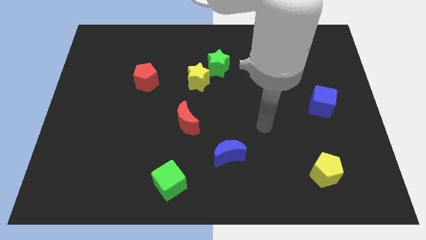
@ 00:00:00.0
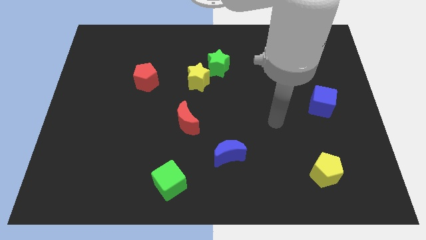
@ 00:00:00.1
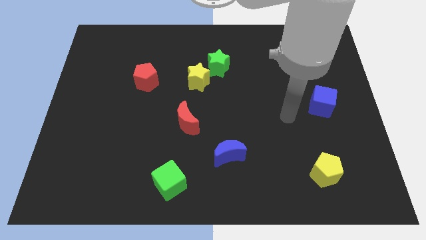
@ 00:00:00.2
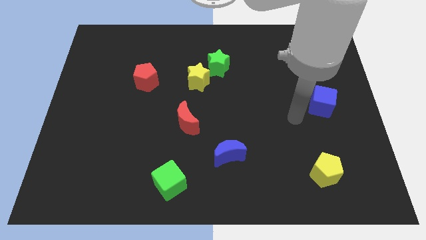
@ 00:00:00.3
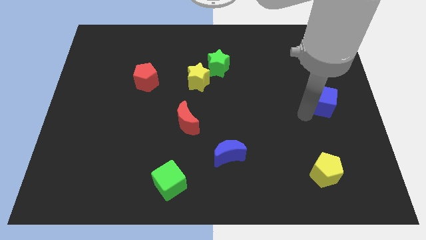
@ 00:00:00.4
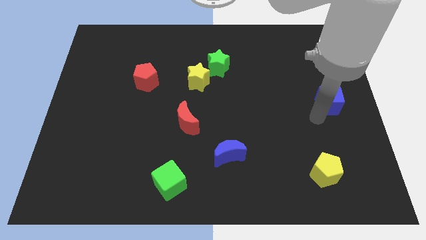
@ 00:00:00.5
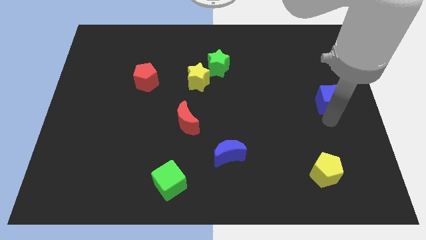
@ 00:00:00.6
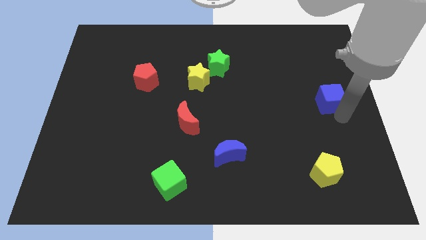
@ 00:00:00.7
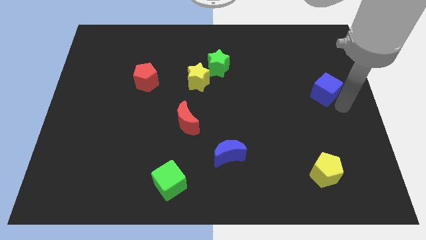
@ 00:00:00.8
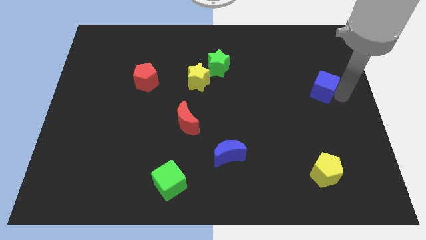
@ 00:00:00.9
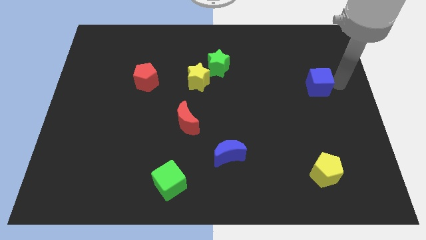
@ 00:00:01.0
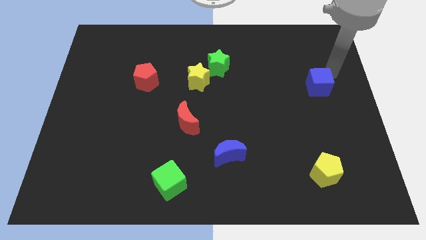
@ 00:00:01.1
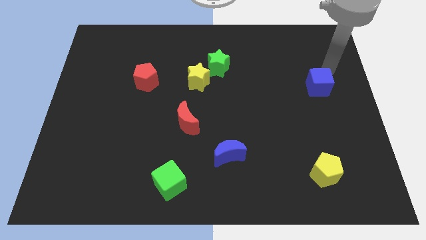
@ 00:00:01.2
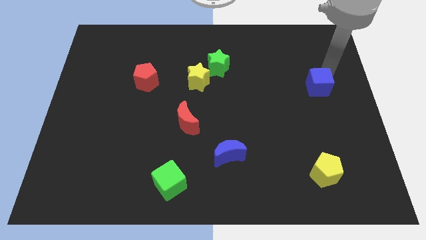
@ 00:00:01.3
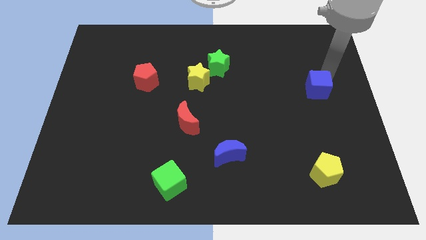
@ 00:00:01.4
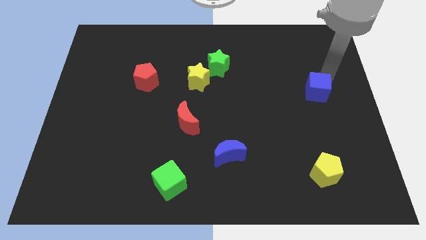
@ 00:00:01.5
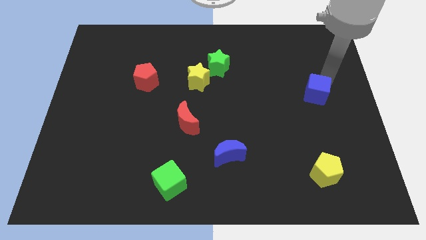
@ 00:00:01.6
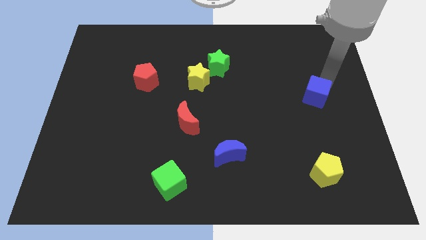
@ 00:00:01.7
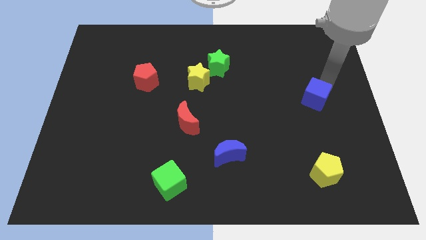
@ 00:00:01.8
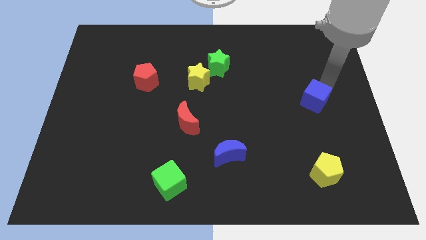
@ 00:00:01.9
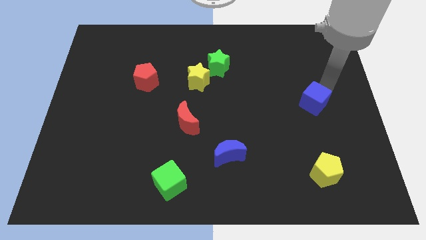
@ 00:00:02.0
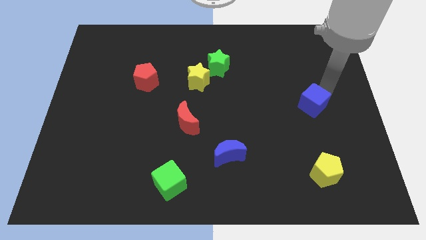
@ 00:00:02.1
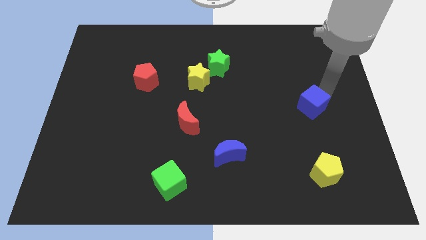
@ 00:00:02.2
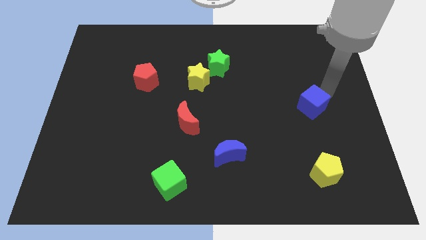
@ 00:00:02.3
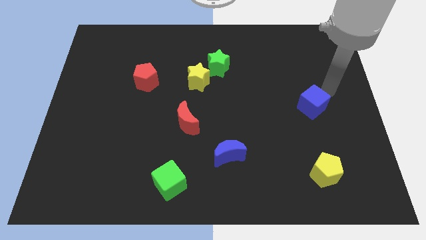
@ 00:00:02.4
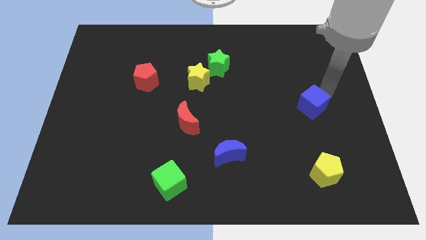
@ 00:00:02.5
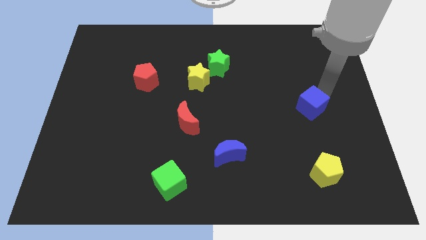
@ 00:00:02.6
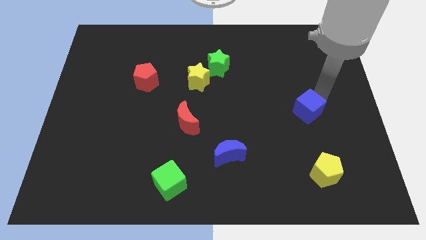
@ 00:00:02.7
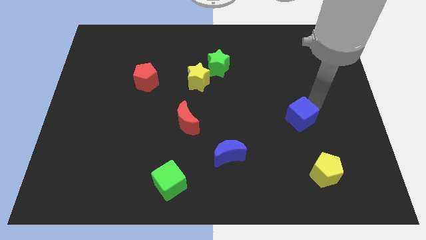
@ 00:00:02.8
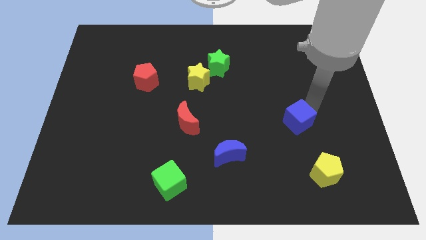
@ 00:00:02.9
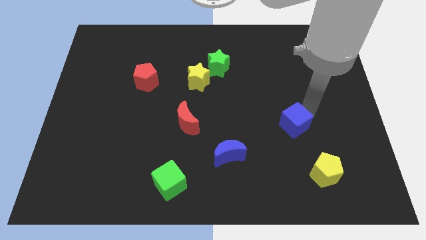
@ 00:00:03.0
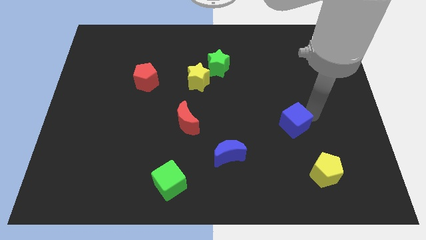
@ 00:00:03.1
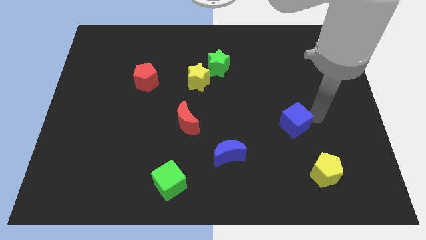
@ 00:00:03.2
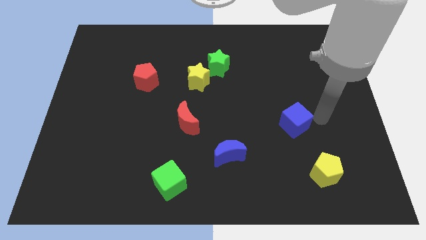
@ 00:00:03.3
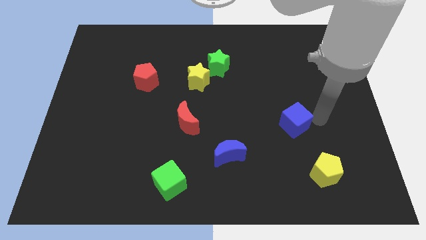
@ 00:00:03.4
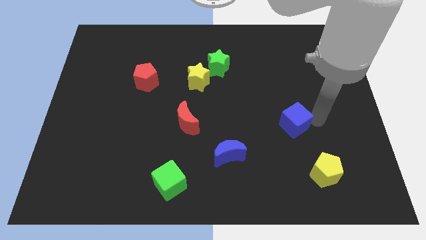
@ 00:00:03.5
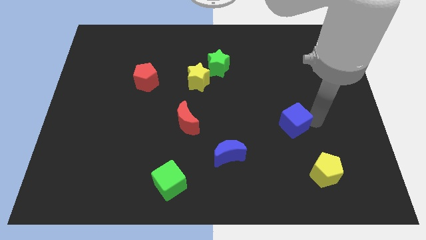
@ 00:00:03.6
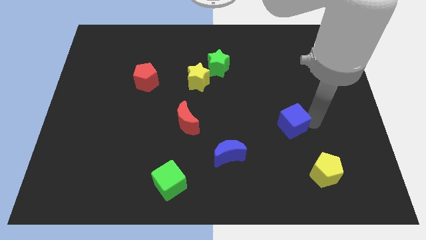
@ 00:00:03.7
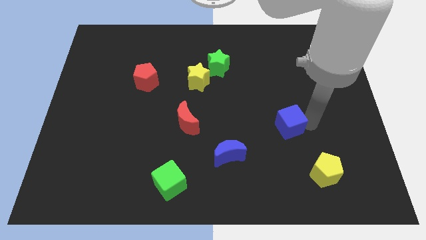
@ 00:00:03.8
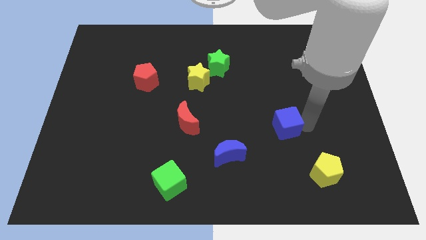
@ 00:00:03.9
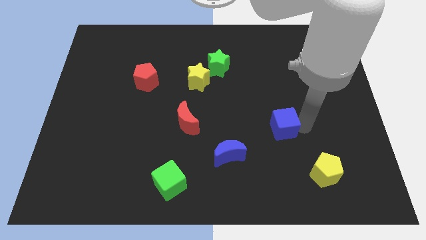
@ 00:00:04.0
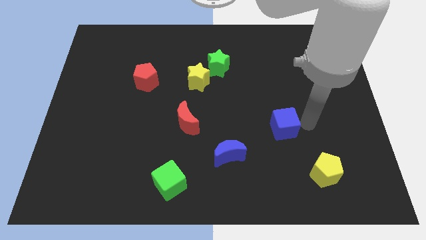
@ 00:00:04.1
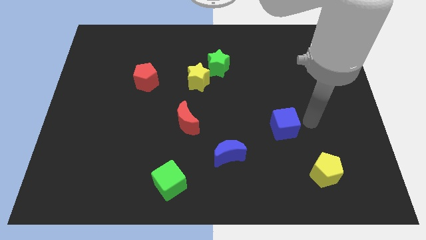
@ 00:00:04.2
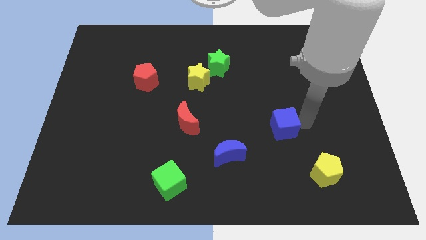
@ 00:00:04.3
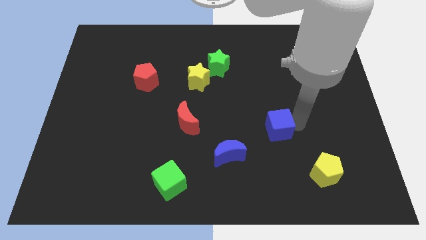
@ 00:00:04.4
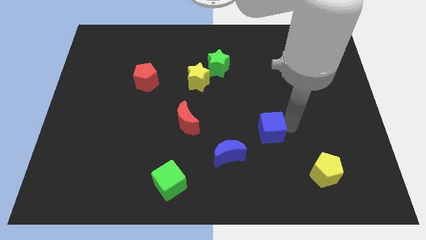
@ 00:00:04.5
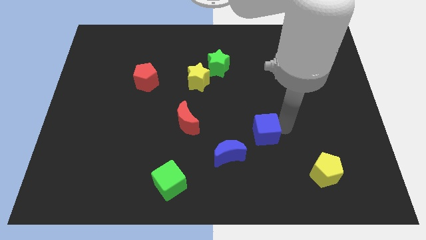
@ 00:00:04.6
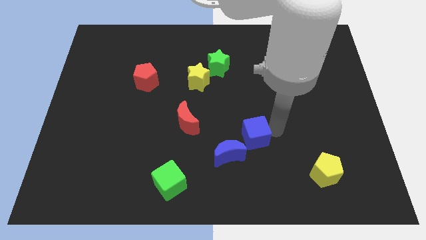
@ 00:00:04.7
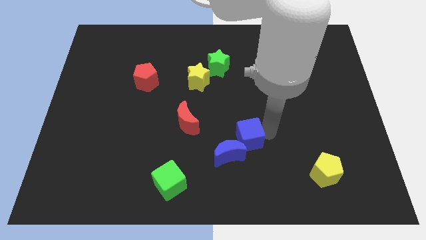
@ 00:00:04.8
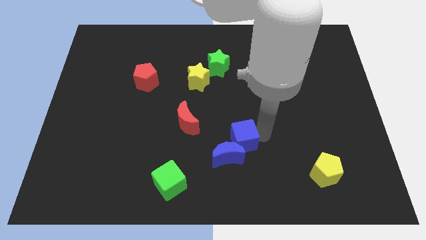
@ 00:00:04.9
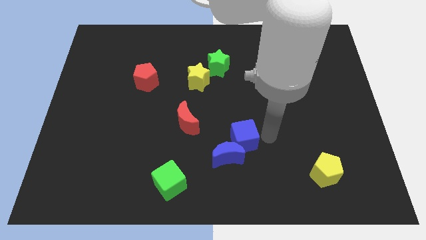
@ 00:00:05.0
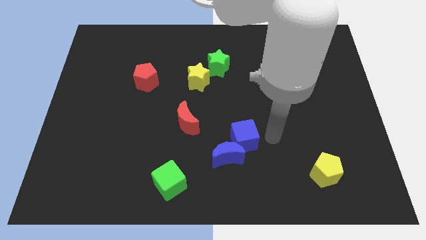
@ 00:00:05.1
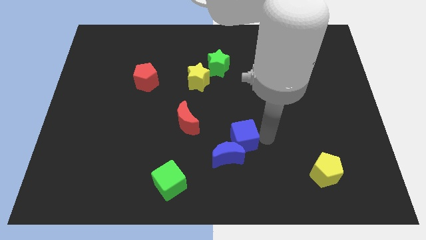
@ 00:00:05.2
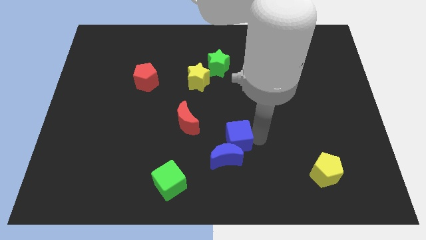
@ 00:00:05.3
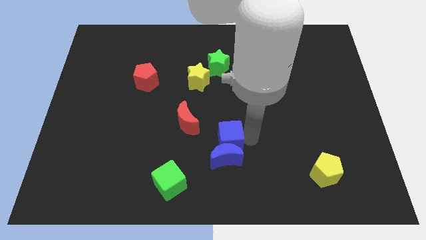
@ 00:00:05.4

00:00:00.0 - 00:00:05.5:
put the blue cube to the bottom right side of the red moon

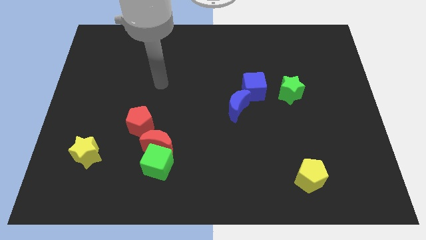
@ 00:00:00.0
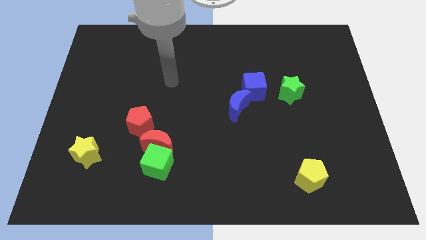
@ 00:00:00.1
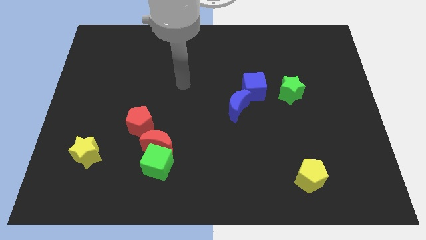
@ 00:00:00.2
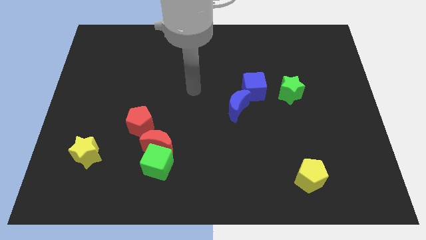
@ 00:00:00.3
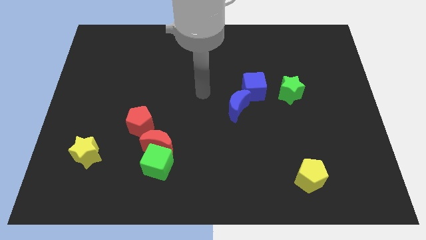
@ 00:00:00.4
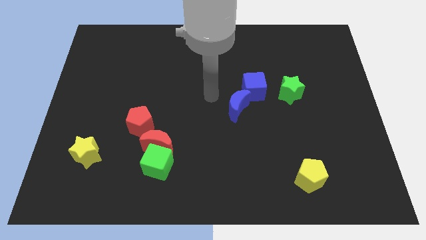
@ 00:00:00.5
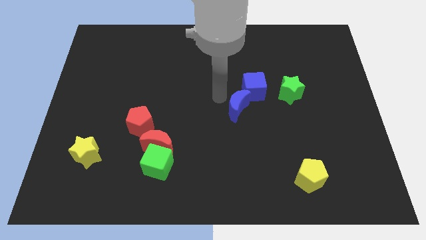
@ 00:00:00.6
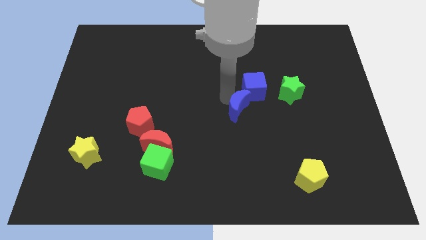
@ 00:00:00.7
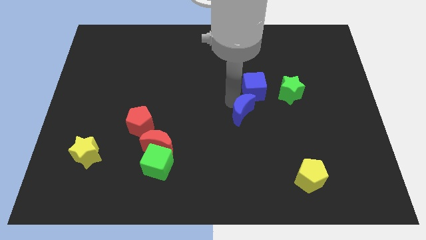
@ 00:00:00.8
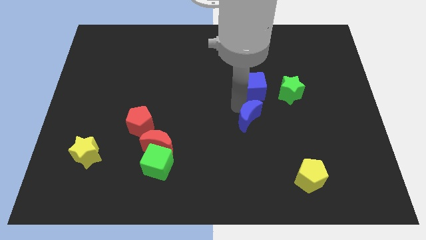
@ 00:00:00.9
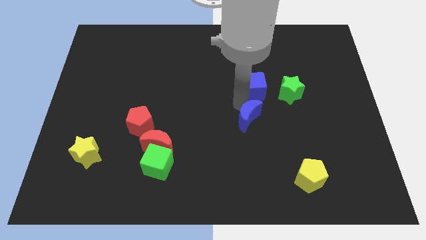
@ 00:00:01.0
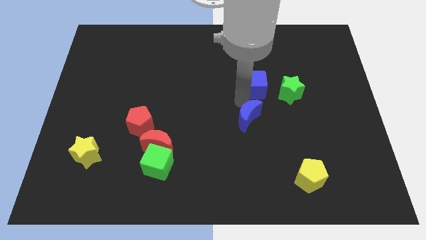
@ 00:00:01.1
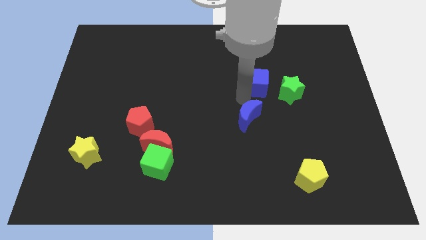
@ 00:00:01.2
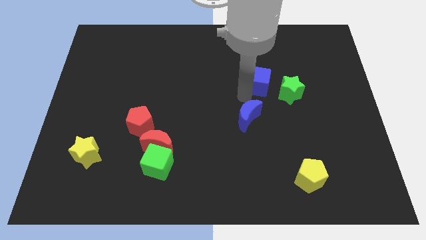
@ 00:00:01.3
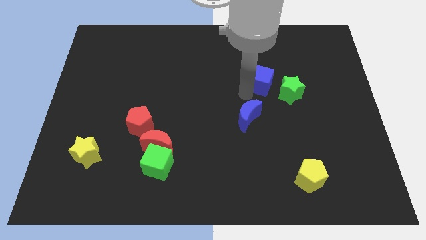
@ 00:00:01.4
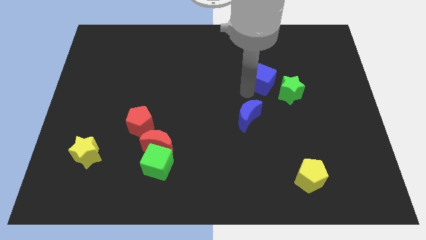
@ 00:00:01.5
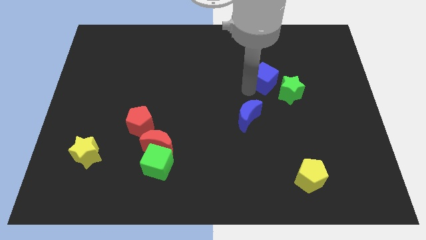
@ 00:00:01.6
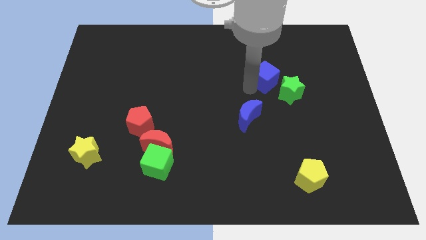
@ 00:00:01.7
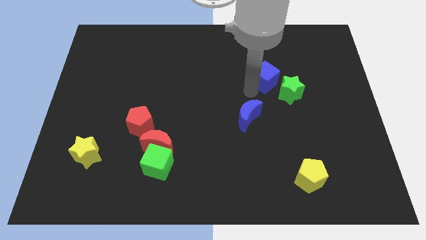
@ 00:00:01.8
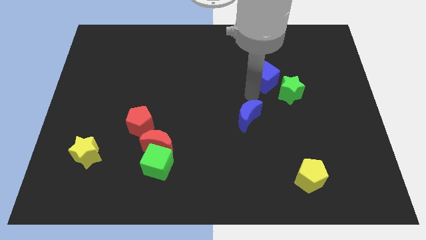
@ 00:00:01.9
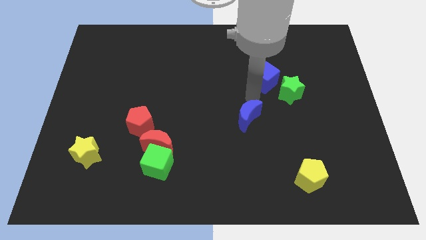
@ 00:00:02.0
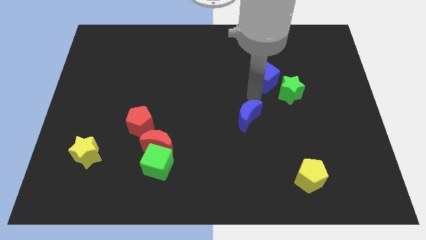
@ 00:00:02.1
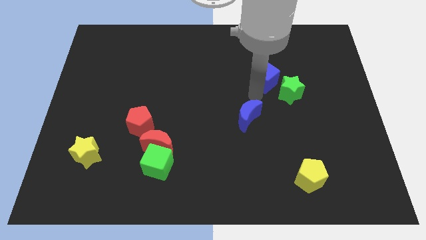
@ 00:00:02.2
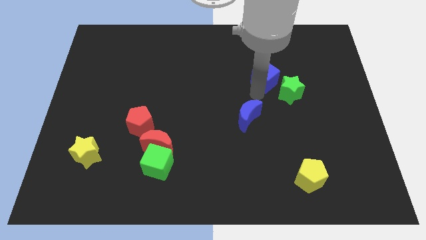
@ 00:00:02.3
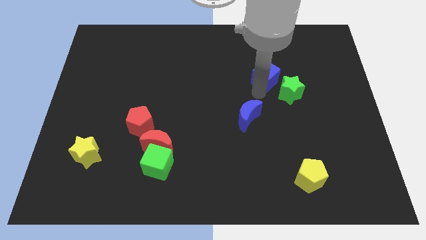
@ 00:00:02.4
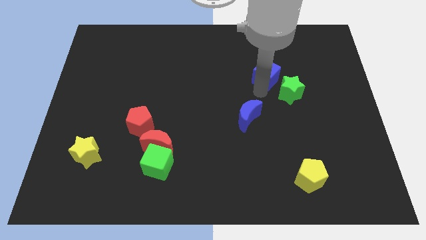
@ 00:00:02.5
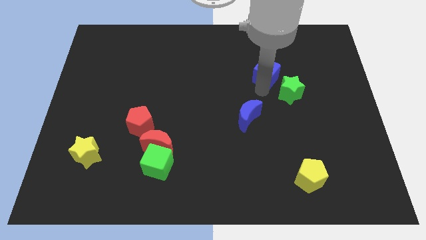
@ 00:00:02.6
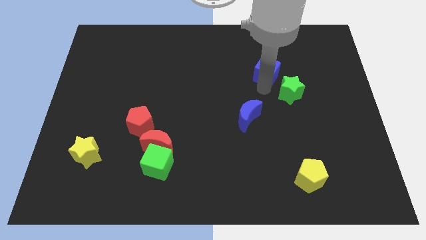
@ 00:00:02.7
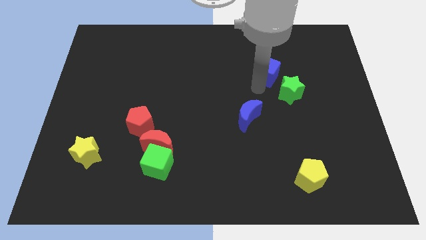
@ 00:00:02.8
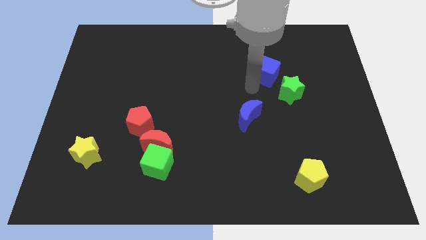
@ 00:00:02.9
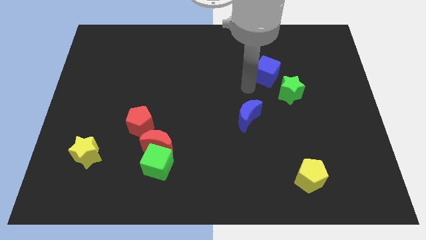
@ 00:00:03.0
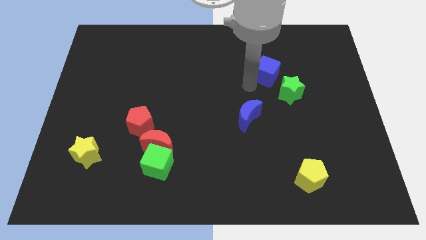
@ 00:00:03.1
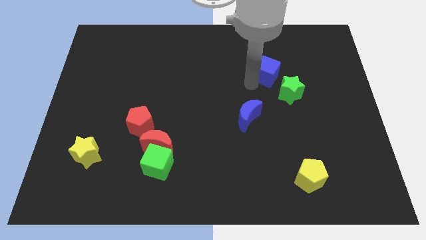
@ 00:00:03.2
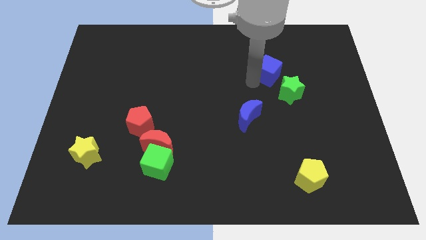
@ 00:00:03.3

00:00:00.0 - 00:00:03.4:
slide the blue cube to the top of the green star
